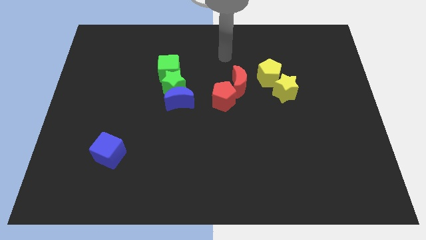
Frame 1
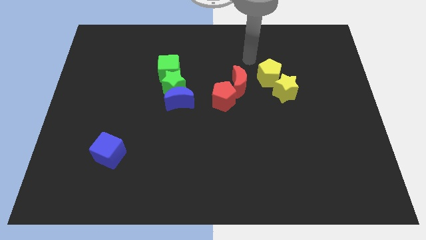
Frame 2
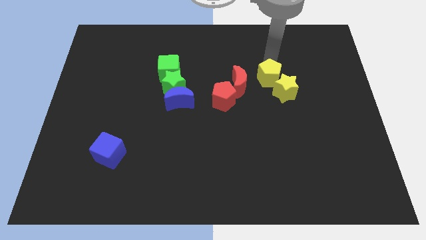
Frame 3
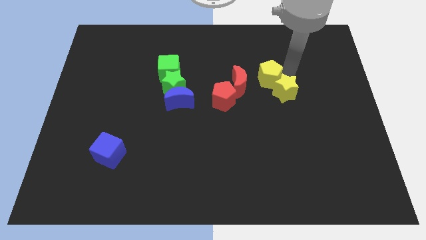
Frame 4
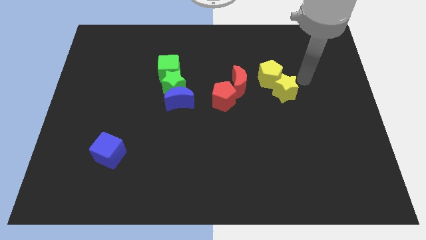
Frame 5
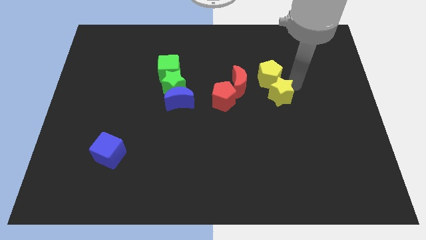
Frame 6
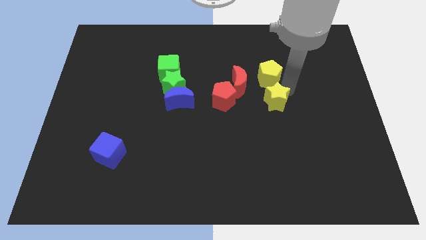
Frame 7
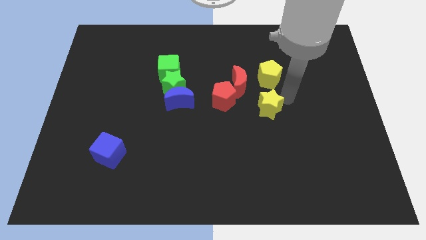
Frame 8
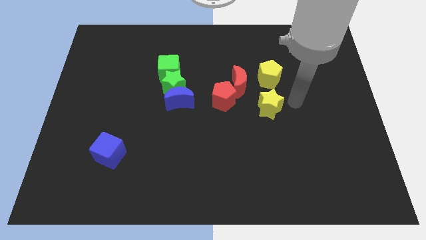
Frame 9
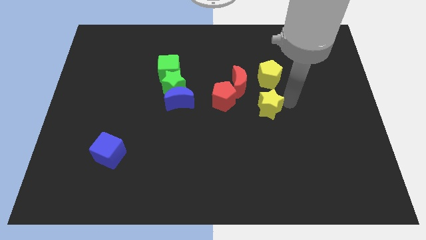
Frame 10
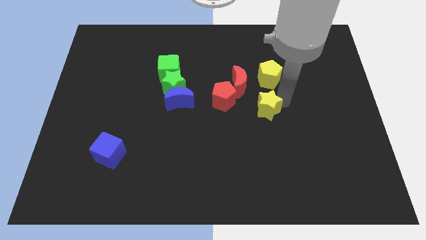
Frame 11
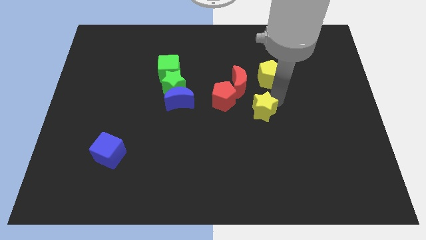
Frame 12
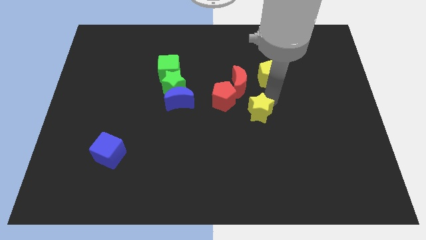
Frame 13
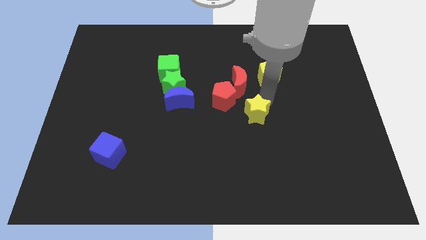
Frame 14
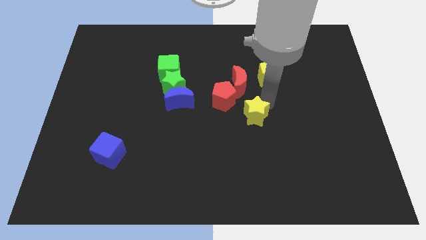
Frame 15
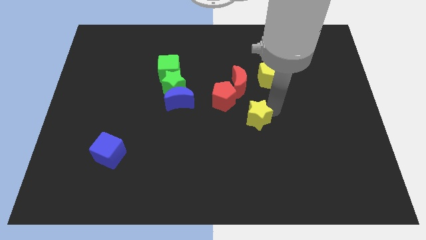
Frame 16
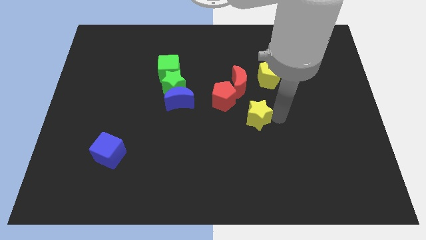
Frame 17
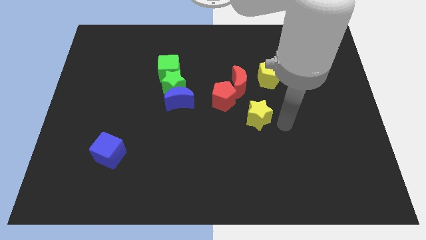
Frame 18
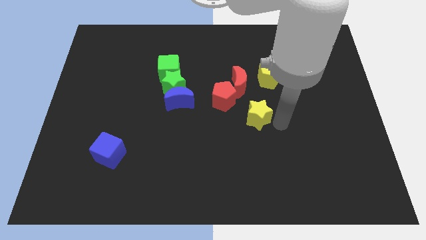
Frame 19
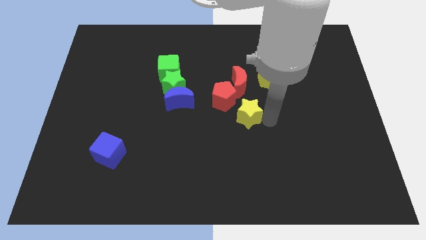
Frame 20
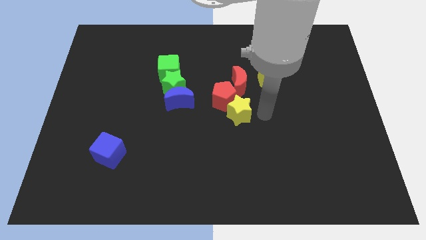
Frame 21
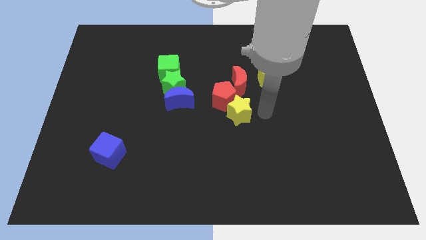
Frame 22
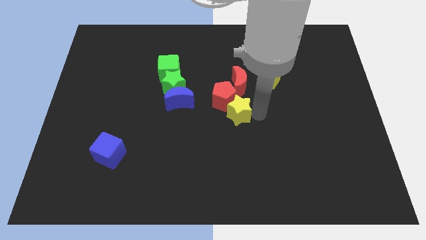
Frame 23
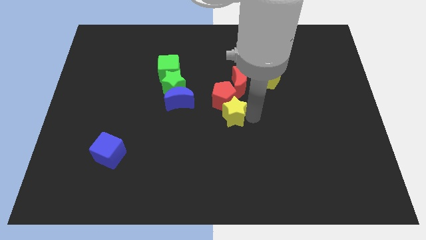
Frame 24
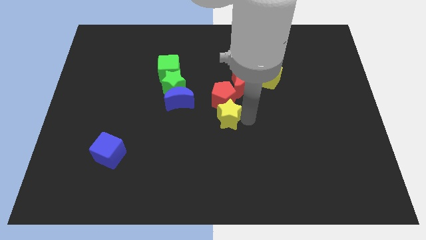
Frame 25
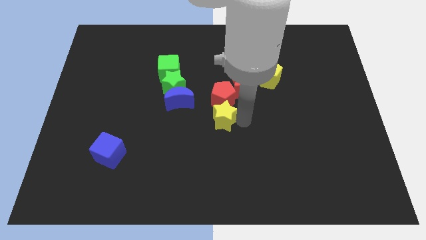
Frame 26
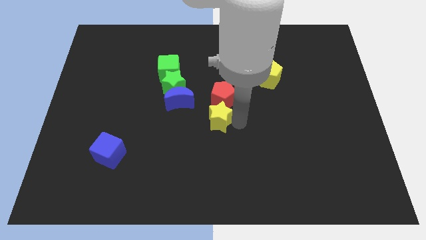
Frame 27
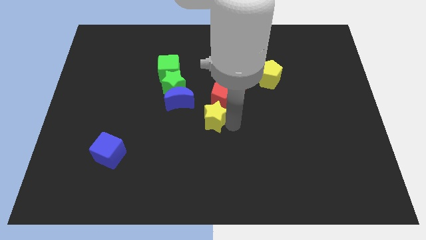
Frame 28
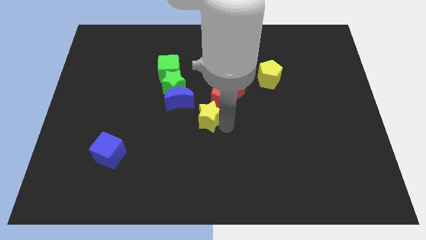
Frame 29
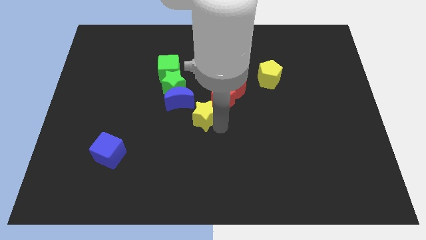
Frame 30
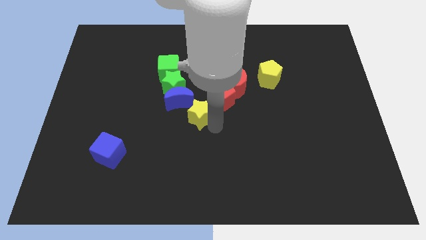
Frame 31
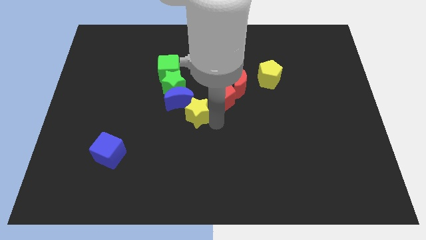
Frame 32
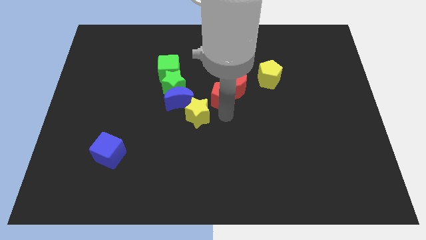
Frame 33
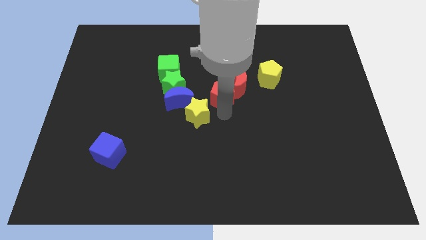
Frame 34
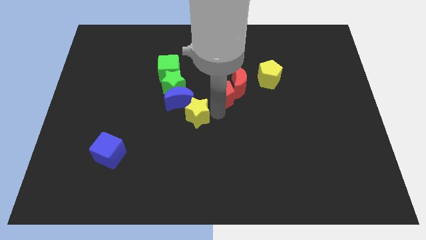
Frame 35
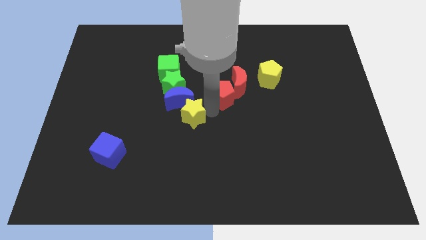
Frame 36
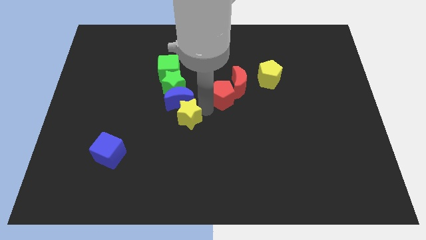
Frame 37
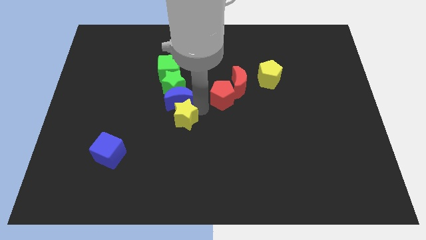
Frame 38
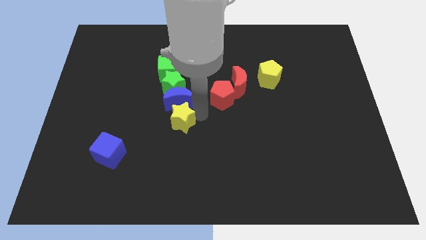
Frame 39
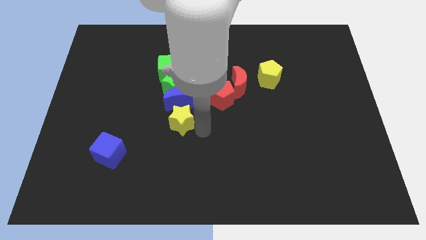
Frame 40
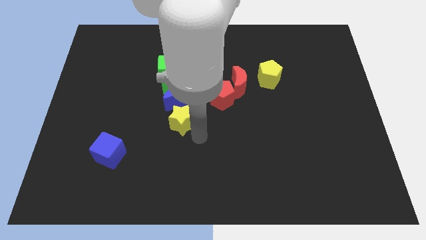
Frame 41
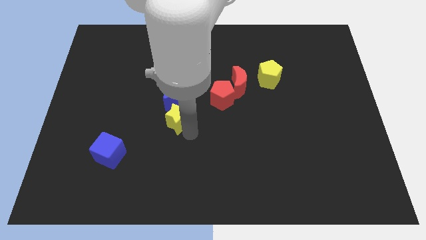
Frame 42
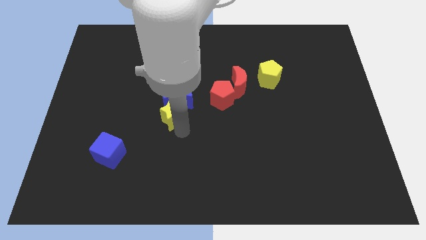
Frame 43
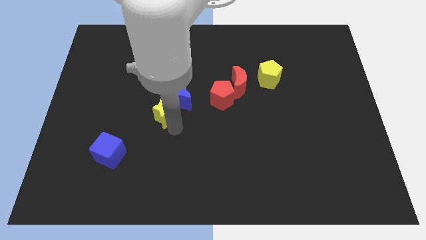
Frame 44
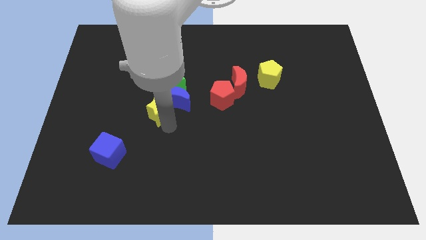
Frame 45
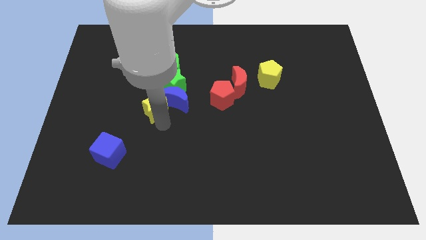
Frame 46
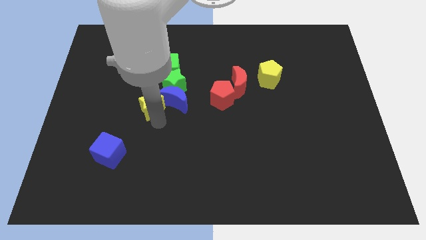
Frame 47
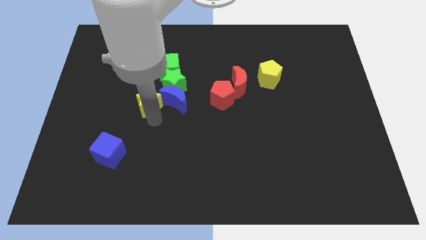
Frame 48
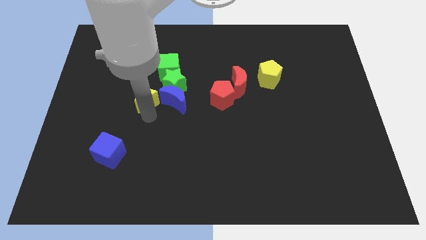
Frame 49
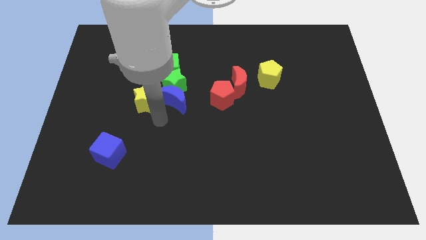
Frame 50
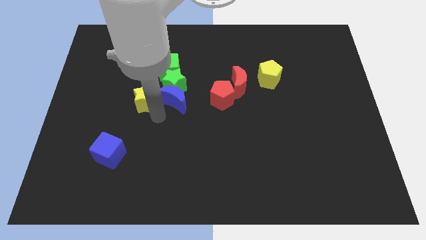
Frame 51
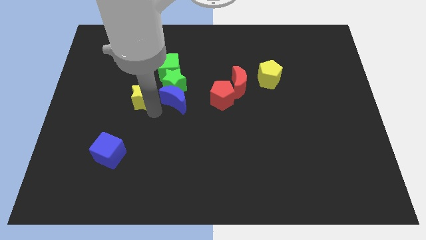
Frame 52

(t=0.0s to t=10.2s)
push the yellow star left of the green star

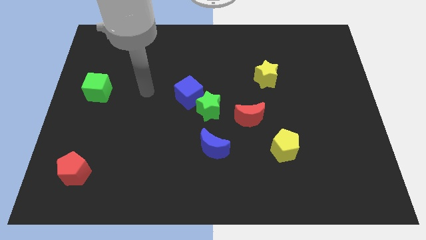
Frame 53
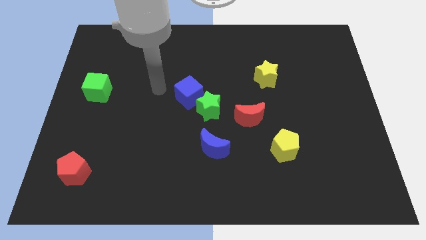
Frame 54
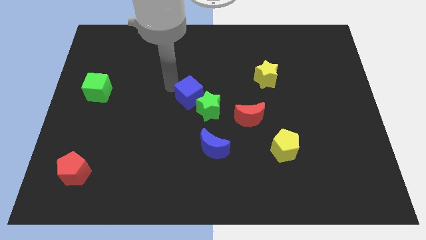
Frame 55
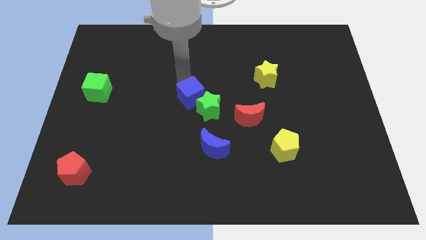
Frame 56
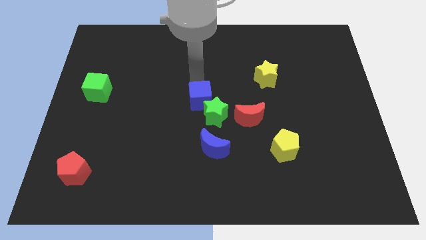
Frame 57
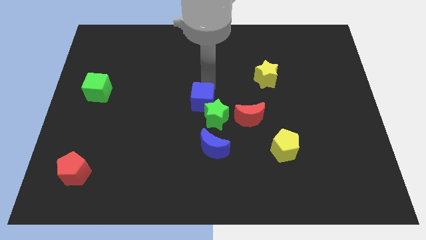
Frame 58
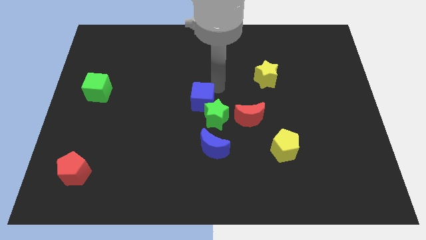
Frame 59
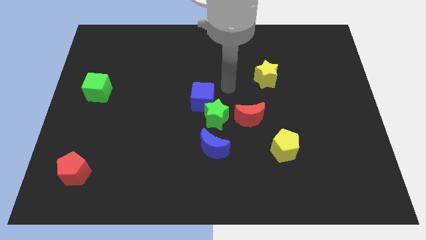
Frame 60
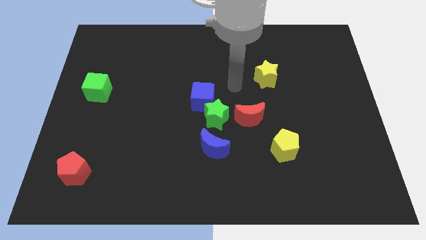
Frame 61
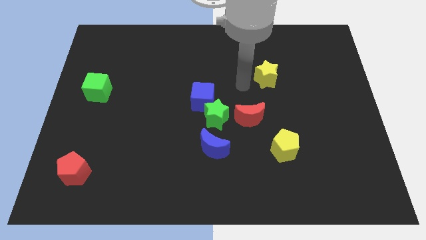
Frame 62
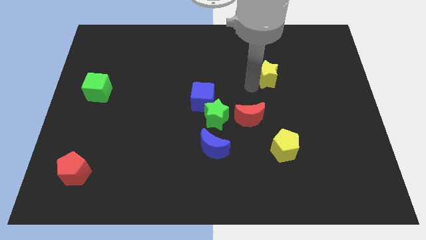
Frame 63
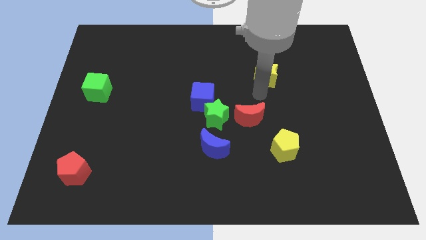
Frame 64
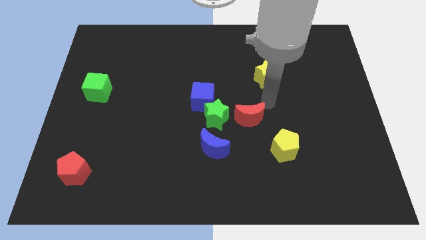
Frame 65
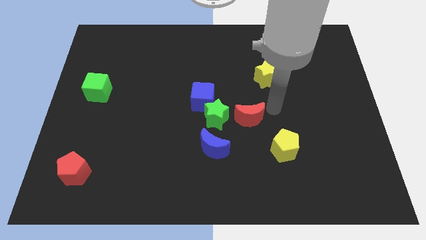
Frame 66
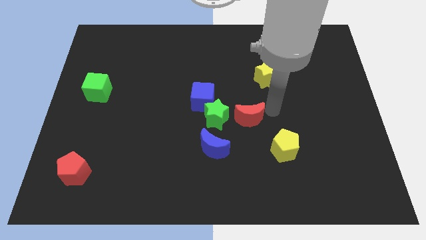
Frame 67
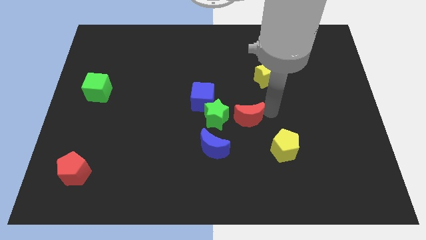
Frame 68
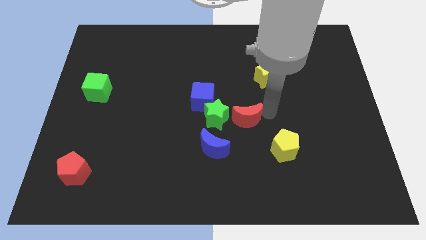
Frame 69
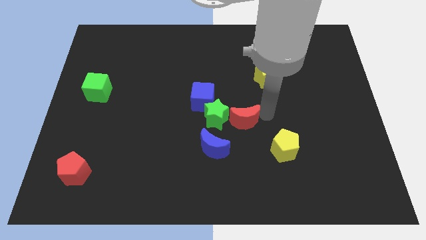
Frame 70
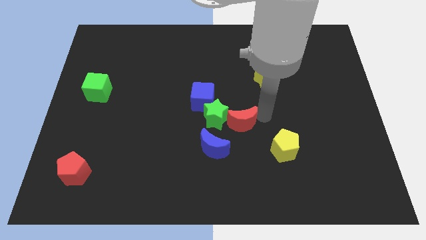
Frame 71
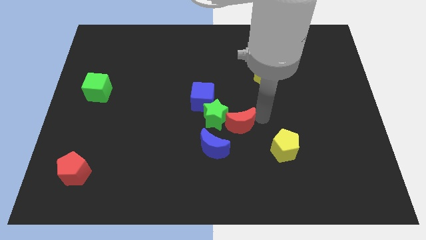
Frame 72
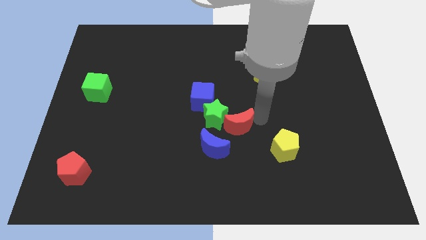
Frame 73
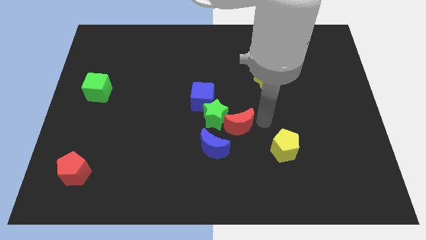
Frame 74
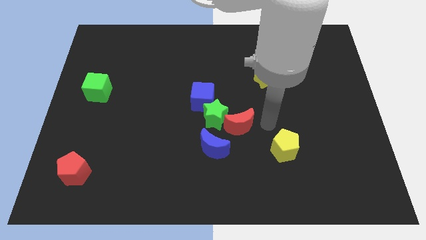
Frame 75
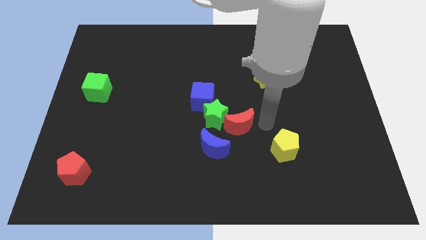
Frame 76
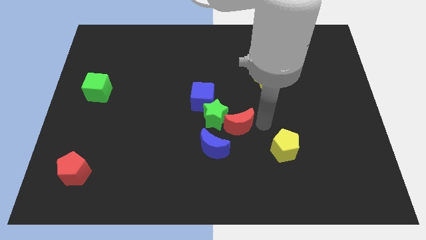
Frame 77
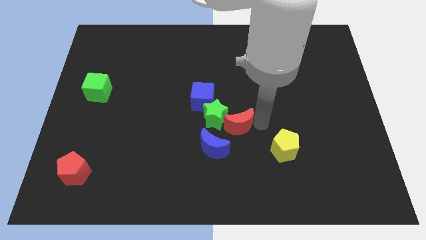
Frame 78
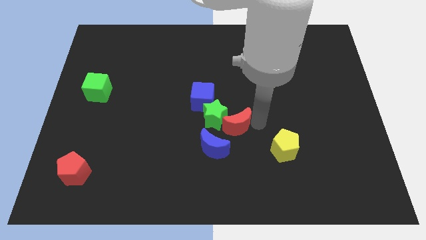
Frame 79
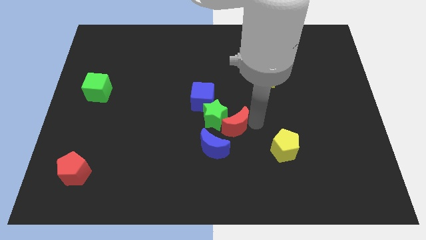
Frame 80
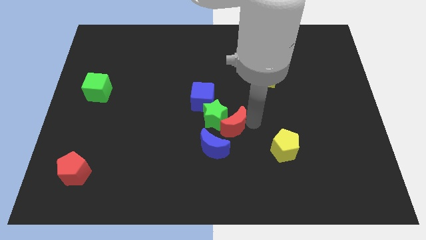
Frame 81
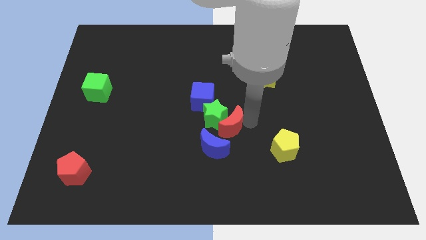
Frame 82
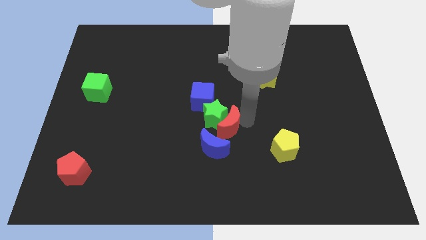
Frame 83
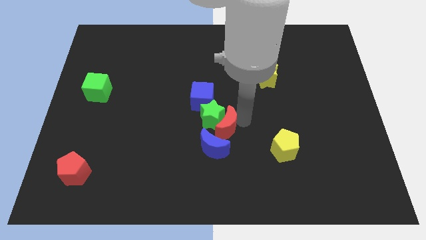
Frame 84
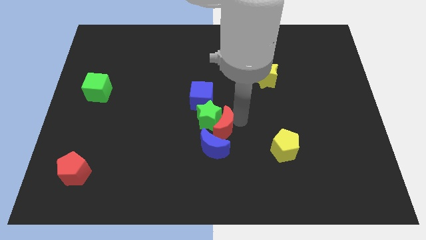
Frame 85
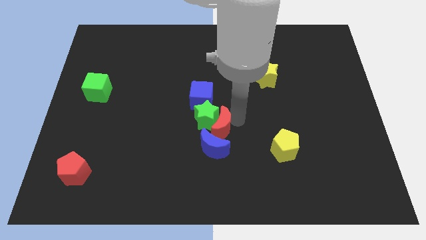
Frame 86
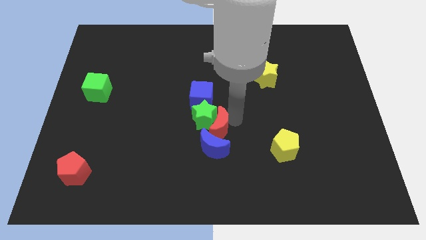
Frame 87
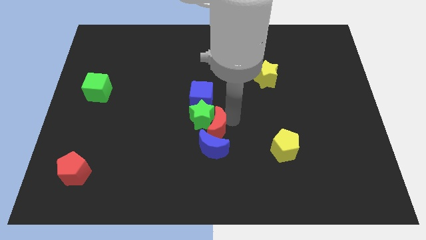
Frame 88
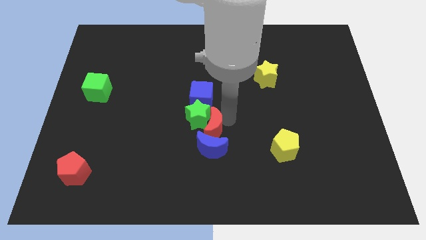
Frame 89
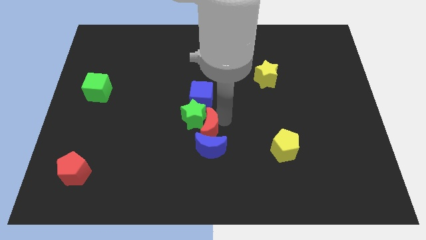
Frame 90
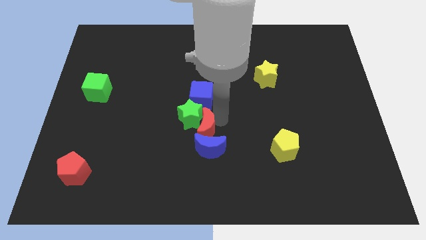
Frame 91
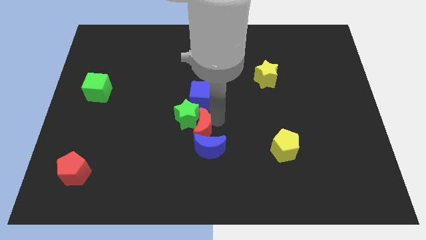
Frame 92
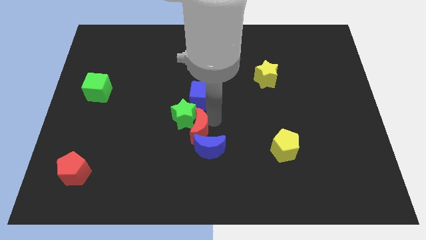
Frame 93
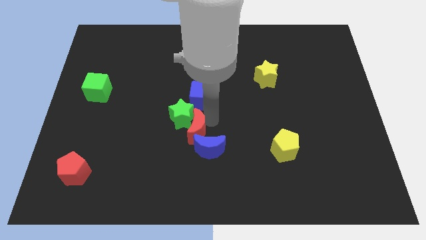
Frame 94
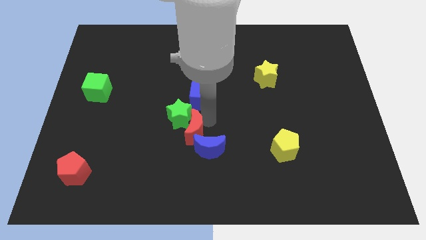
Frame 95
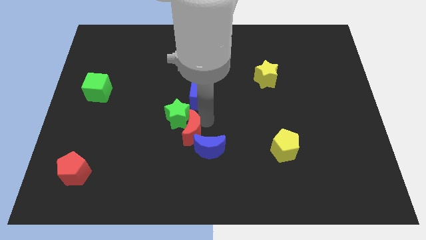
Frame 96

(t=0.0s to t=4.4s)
slide the red moon just left of the blue moon
